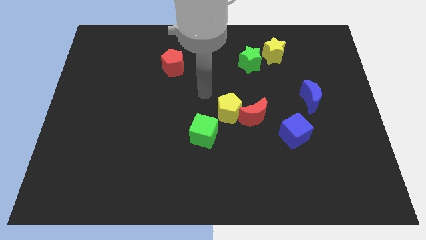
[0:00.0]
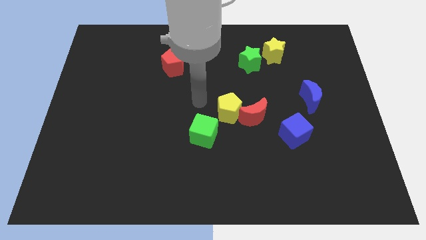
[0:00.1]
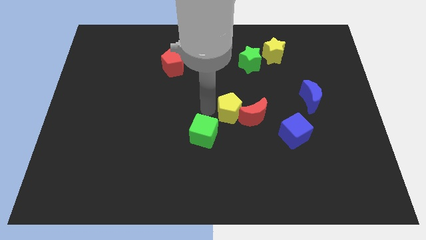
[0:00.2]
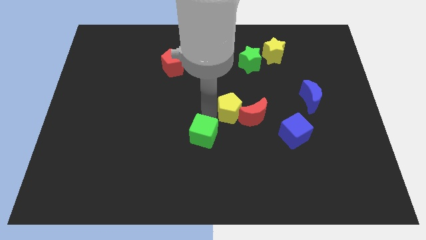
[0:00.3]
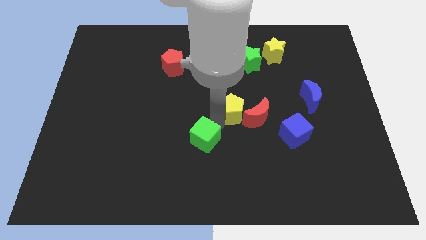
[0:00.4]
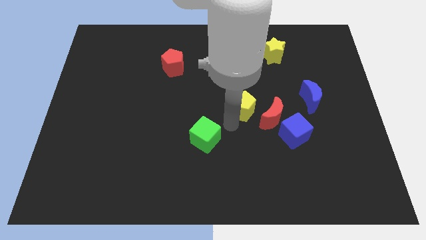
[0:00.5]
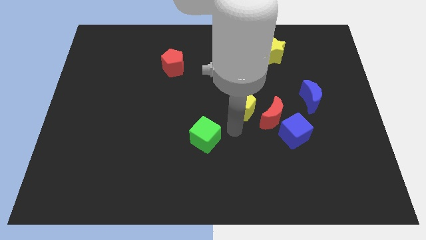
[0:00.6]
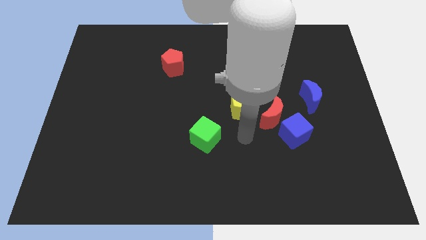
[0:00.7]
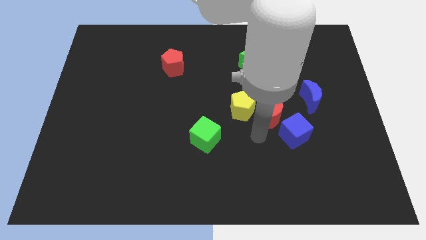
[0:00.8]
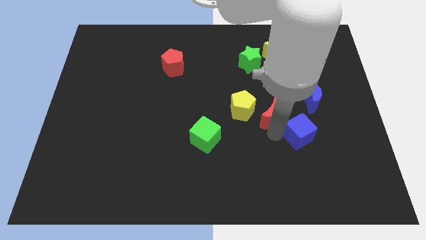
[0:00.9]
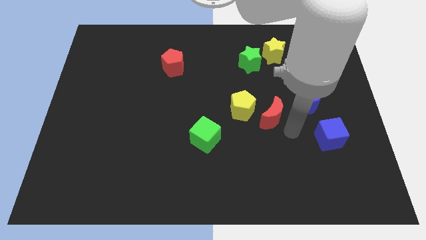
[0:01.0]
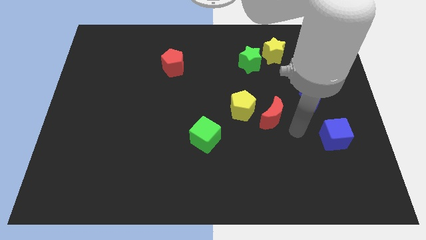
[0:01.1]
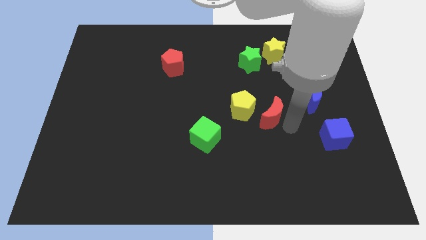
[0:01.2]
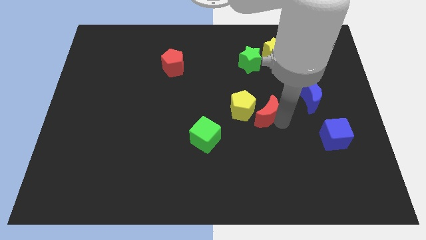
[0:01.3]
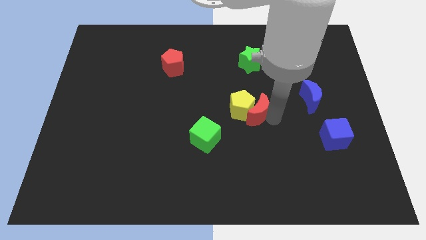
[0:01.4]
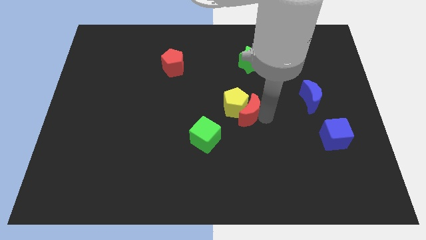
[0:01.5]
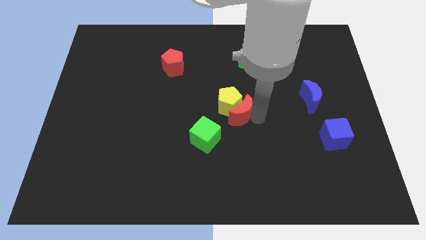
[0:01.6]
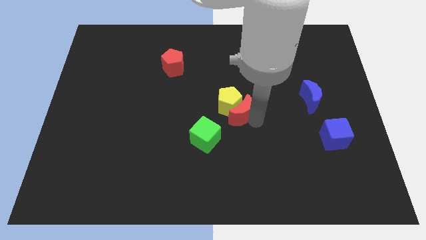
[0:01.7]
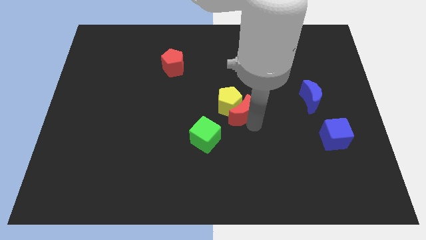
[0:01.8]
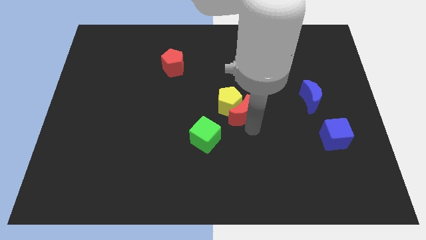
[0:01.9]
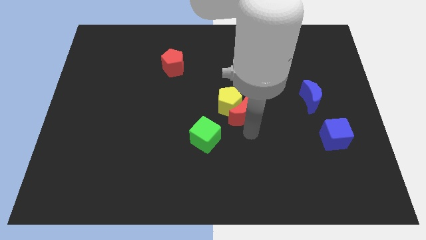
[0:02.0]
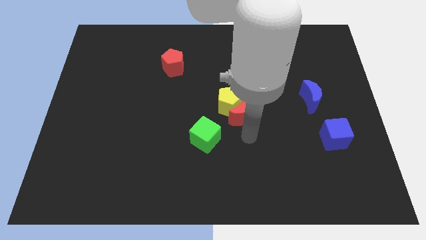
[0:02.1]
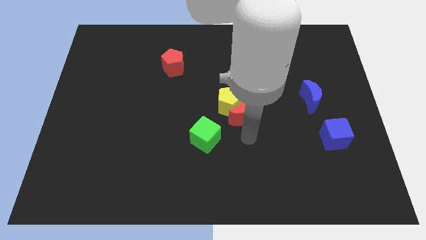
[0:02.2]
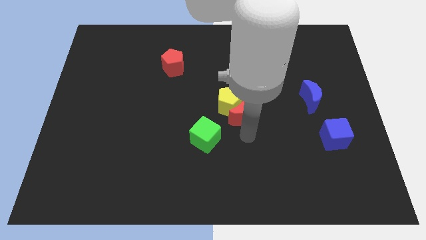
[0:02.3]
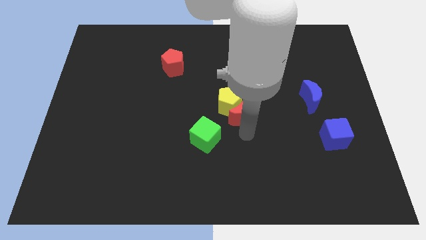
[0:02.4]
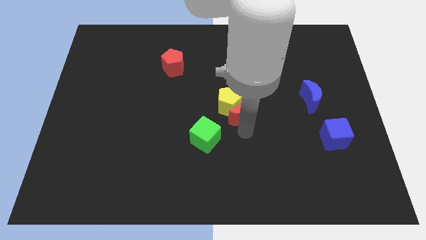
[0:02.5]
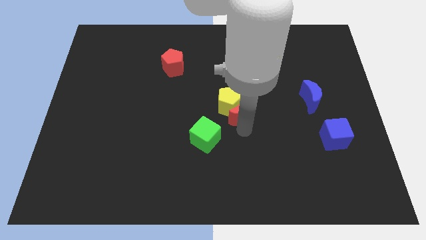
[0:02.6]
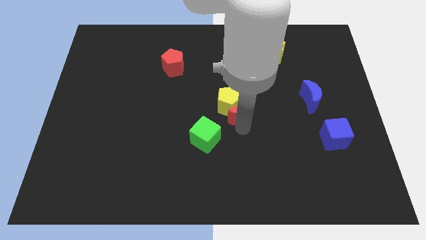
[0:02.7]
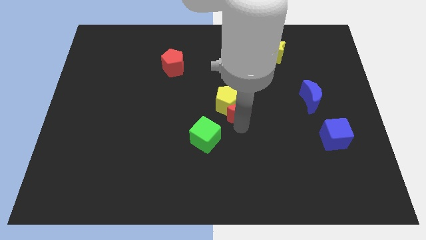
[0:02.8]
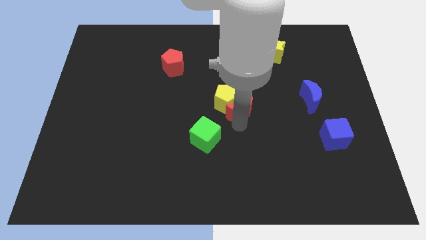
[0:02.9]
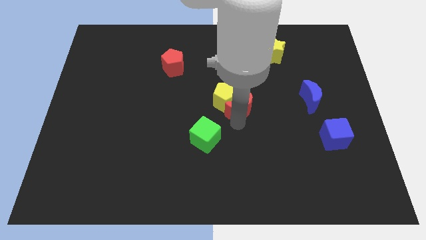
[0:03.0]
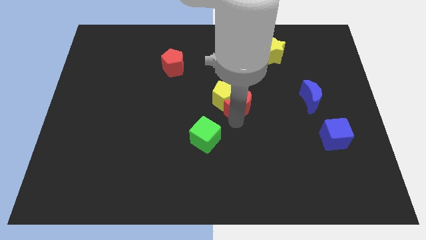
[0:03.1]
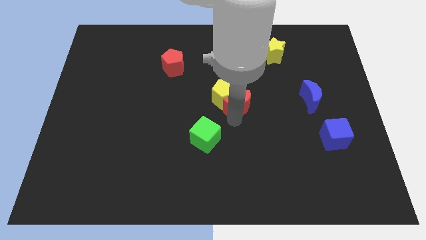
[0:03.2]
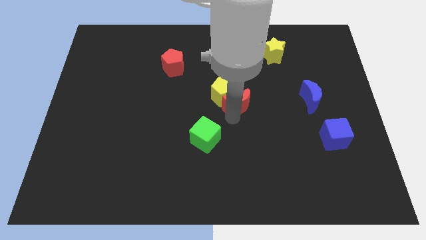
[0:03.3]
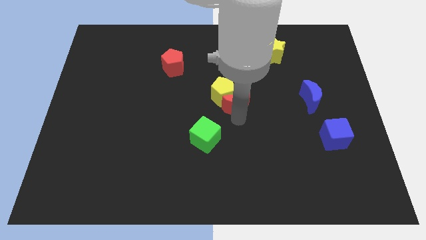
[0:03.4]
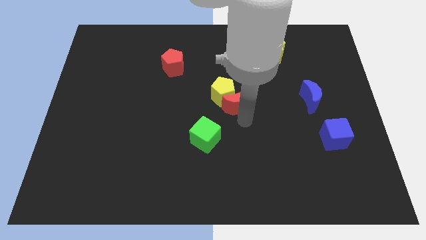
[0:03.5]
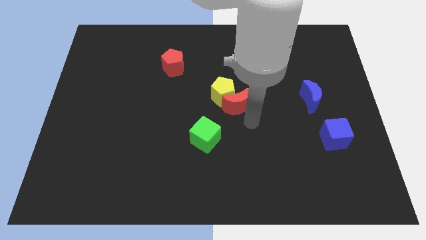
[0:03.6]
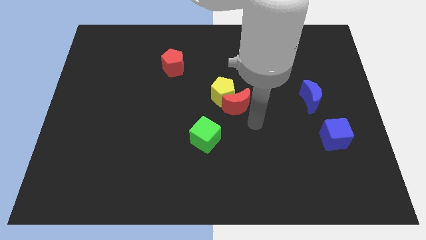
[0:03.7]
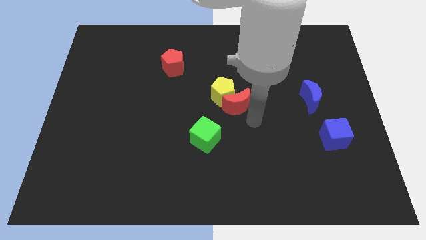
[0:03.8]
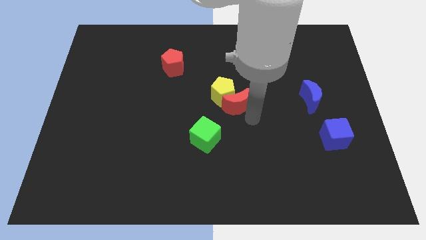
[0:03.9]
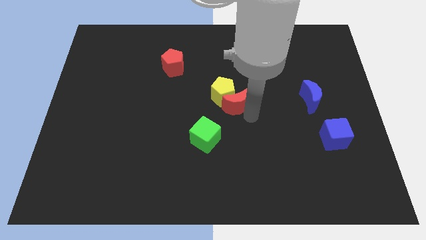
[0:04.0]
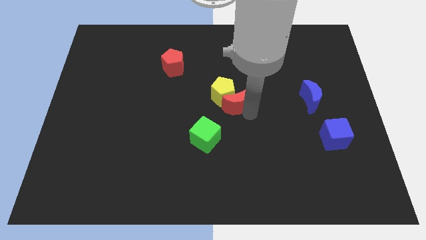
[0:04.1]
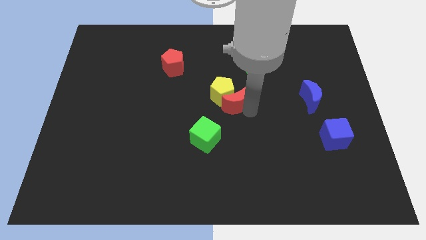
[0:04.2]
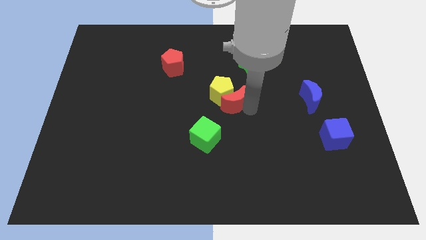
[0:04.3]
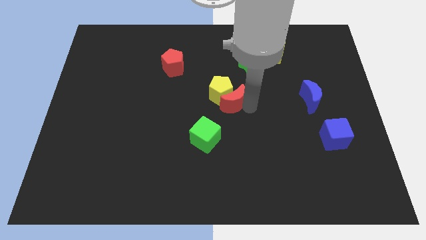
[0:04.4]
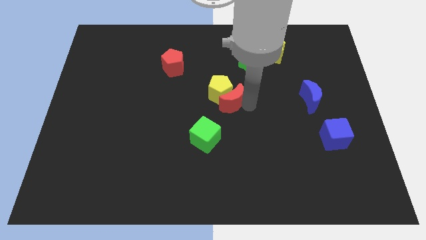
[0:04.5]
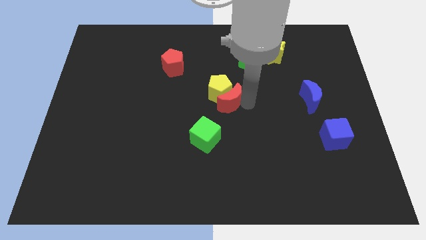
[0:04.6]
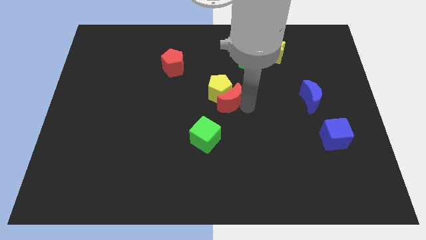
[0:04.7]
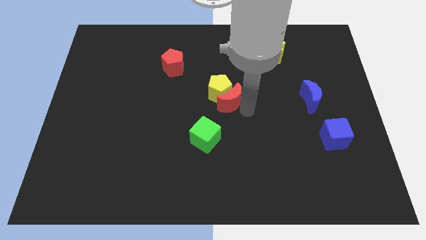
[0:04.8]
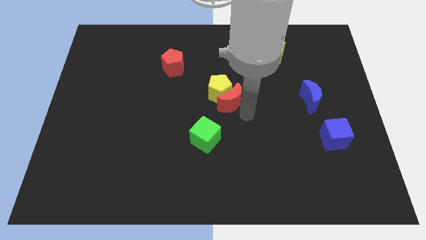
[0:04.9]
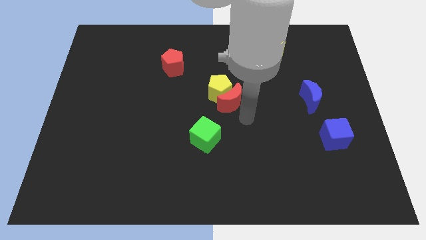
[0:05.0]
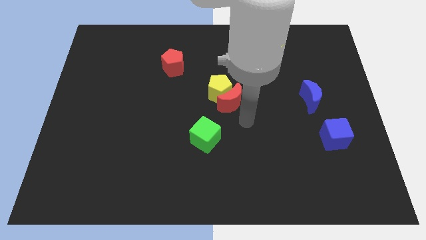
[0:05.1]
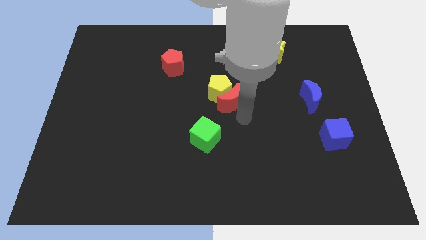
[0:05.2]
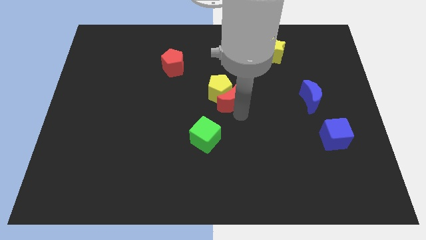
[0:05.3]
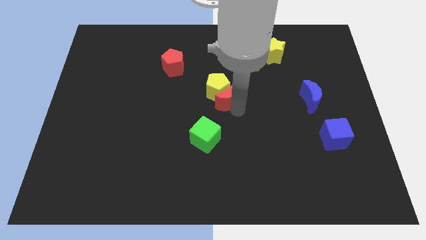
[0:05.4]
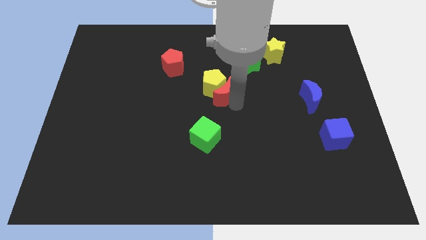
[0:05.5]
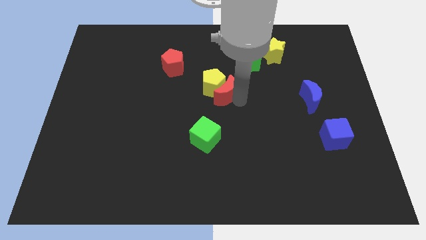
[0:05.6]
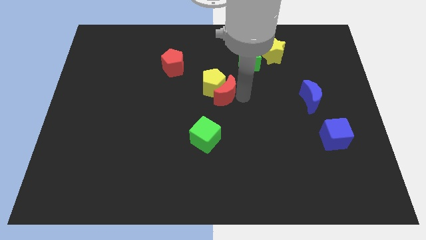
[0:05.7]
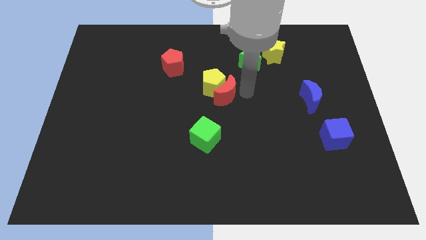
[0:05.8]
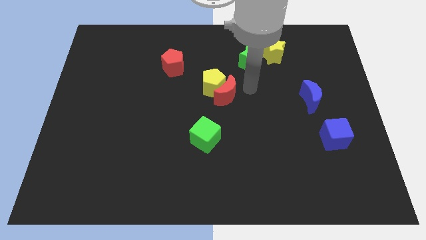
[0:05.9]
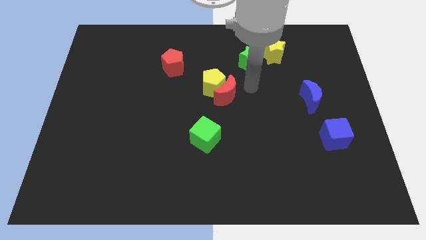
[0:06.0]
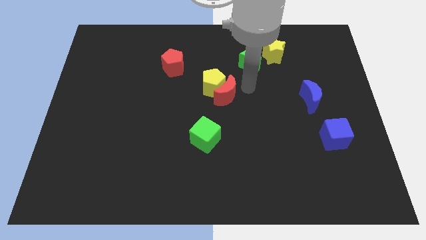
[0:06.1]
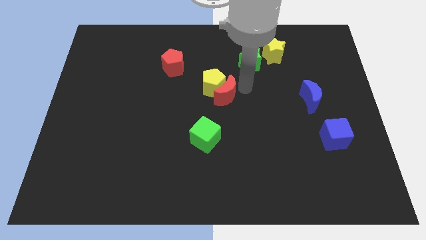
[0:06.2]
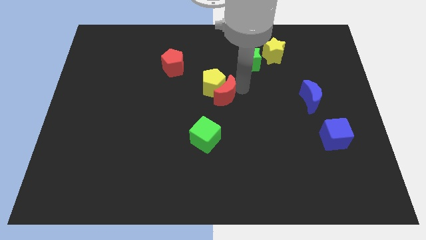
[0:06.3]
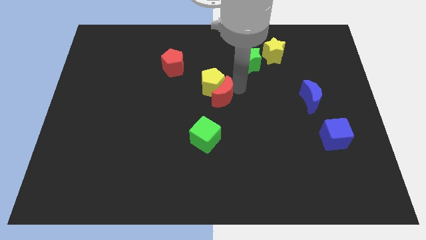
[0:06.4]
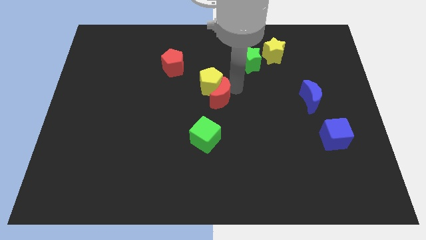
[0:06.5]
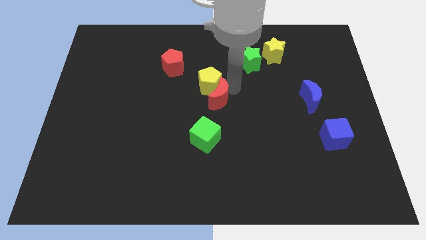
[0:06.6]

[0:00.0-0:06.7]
push the red moon left slightly

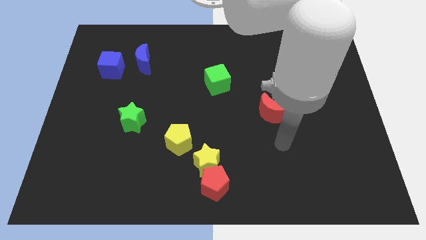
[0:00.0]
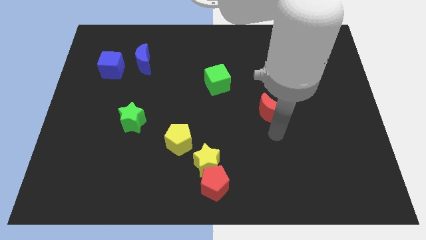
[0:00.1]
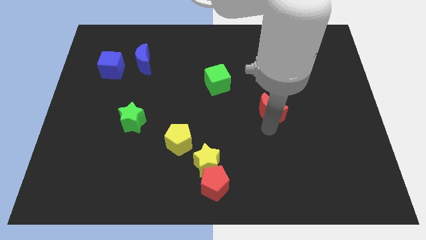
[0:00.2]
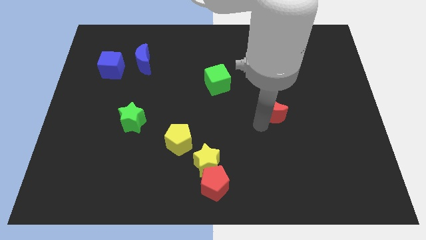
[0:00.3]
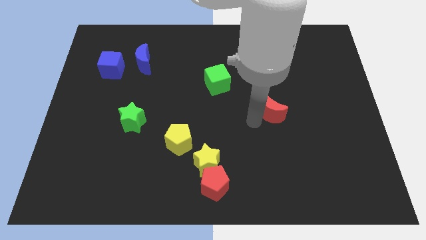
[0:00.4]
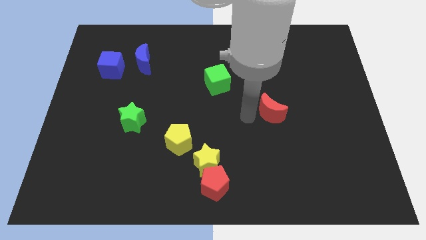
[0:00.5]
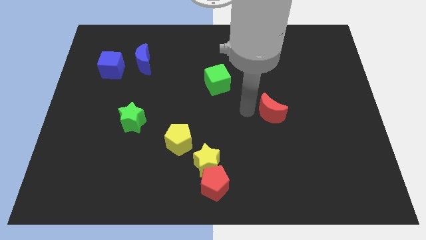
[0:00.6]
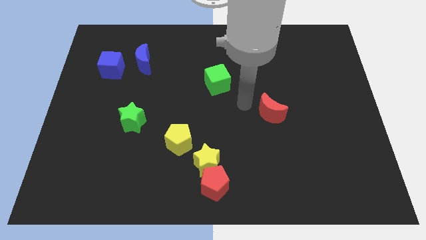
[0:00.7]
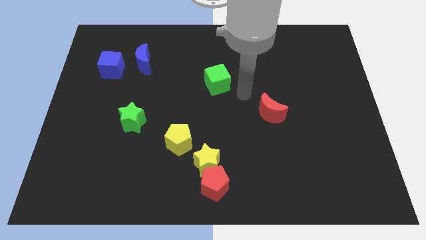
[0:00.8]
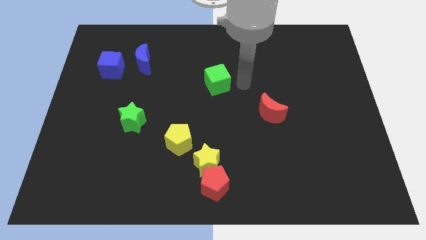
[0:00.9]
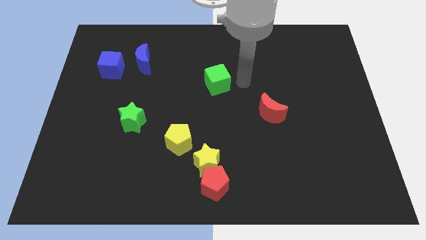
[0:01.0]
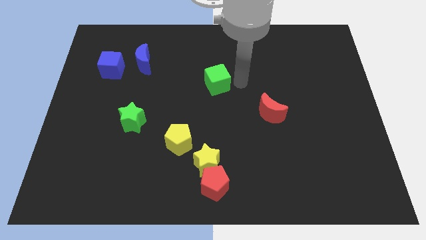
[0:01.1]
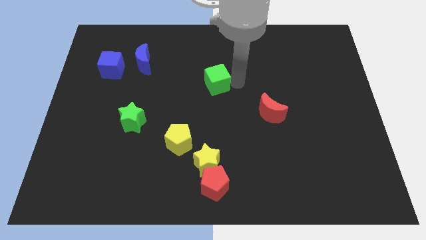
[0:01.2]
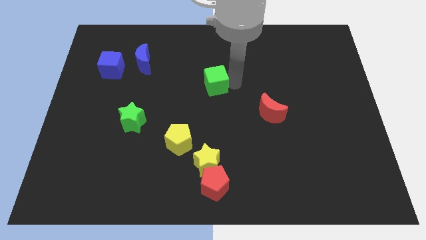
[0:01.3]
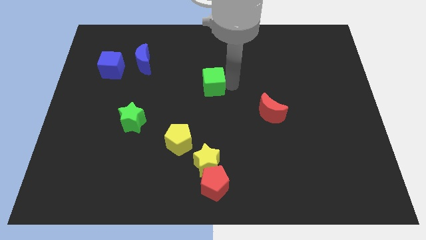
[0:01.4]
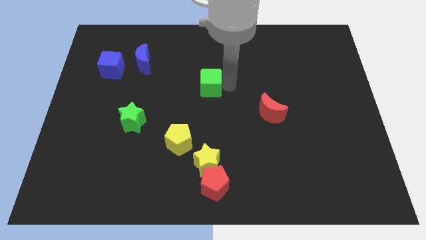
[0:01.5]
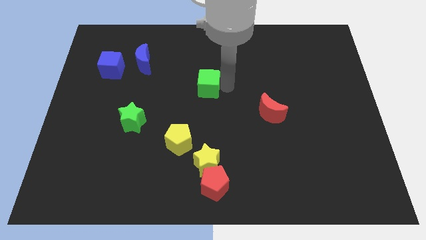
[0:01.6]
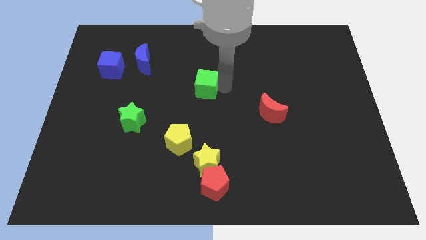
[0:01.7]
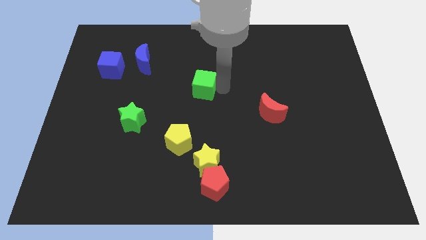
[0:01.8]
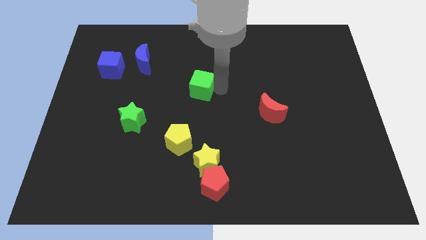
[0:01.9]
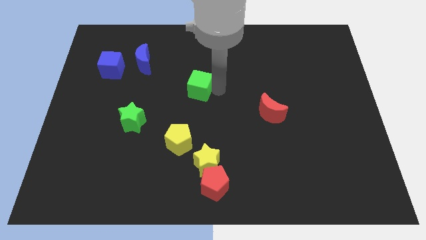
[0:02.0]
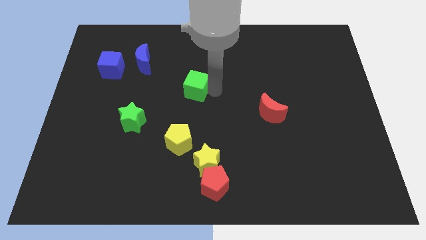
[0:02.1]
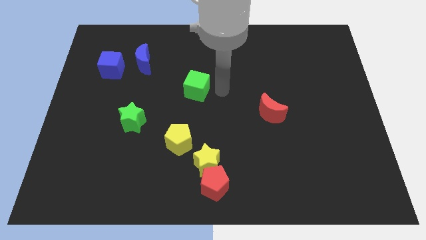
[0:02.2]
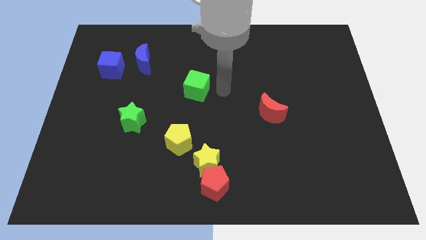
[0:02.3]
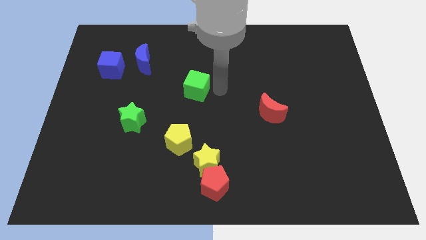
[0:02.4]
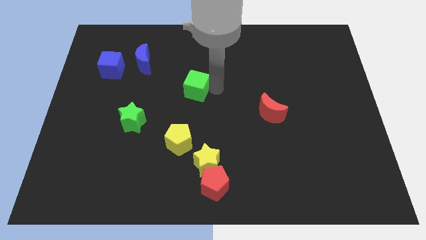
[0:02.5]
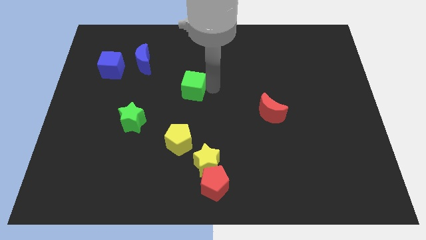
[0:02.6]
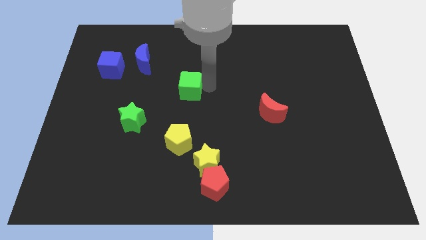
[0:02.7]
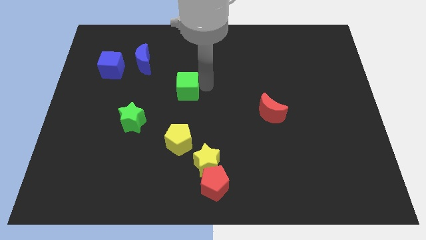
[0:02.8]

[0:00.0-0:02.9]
slide the green cube left slightly
